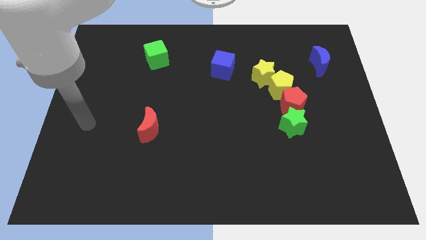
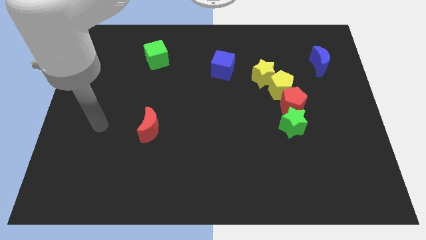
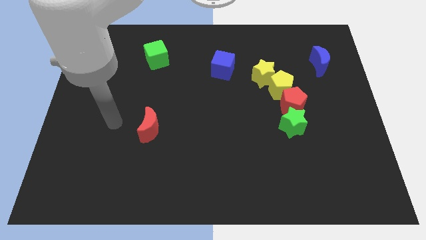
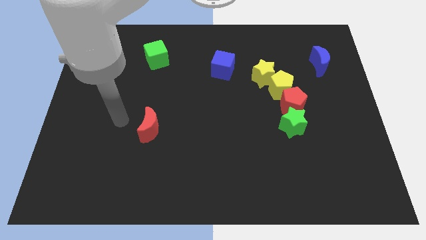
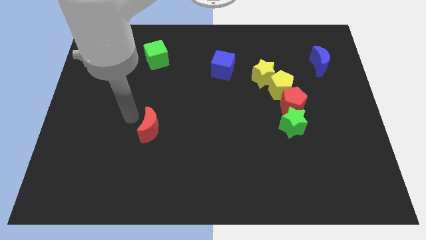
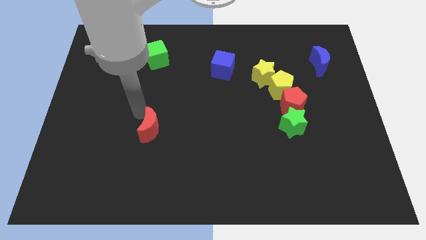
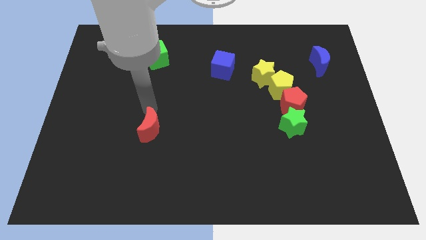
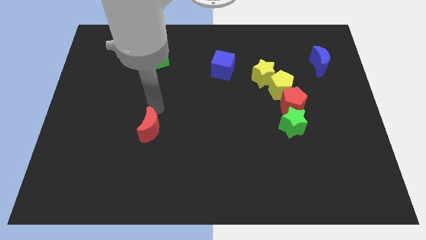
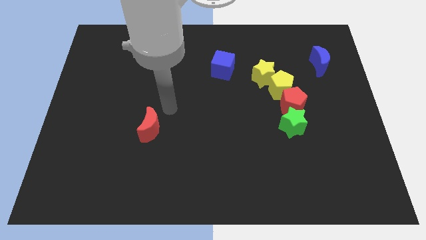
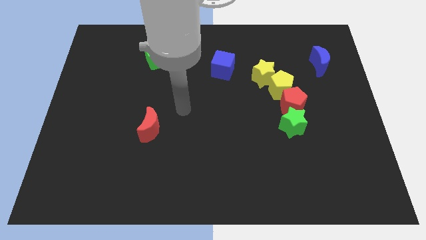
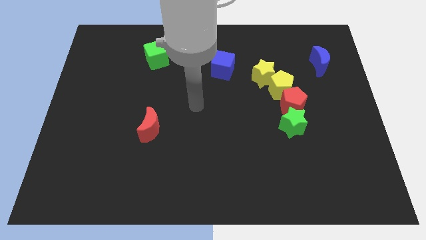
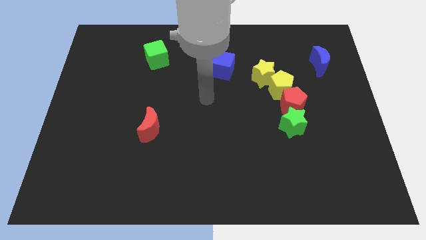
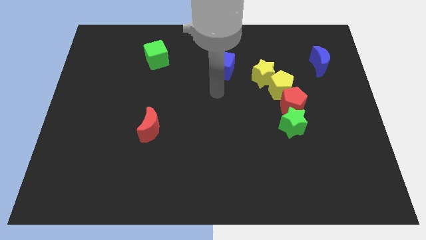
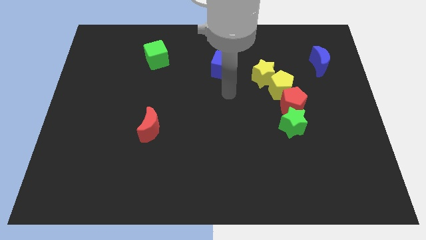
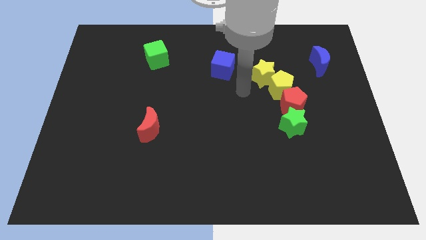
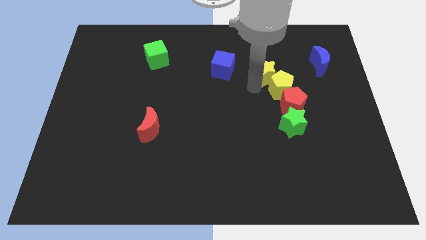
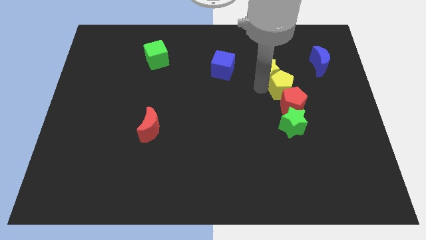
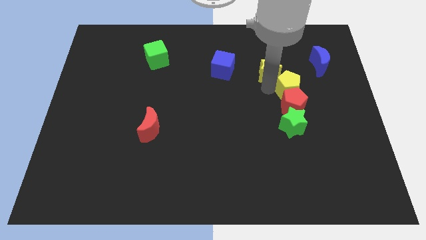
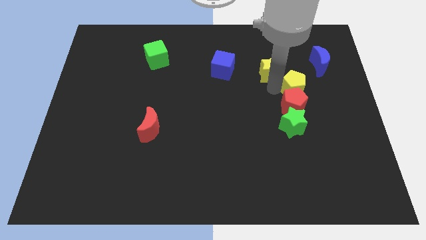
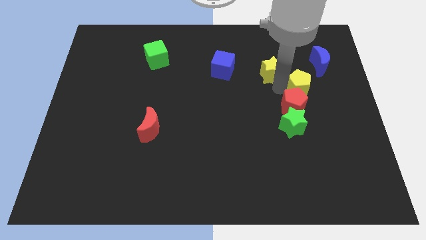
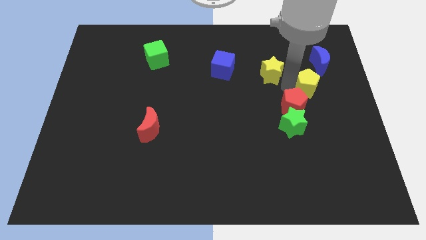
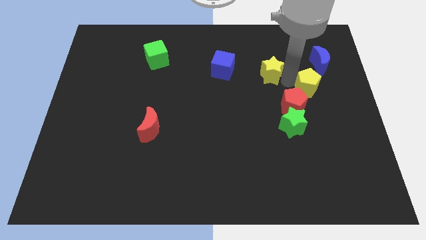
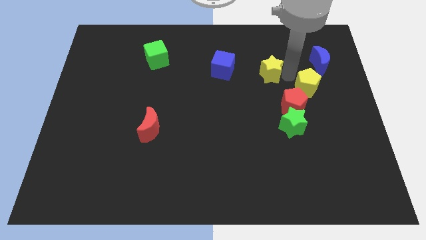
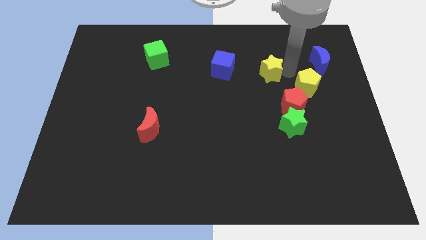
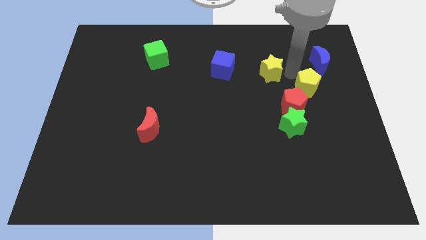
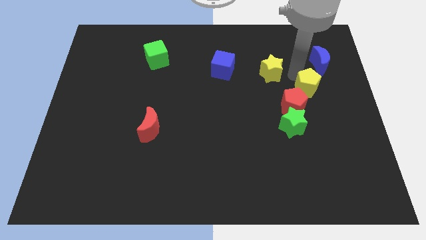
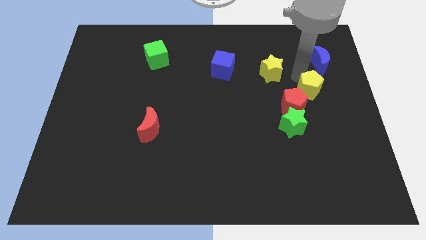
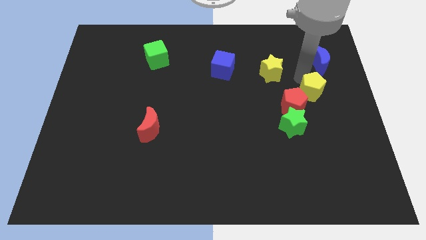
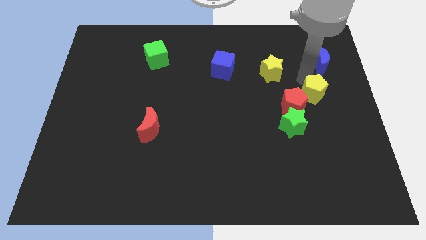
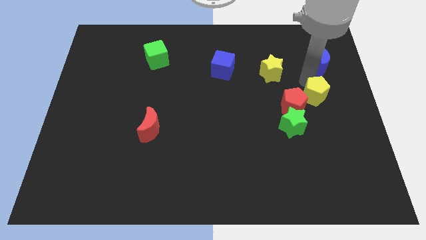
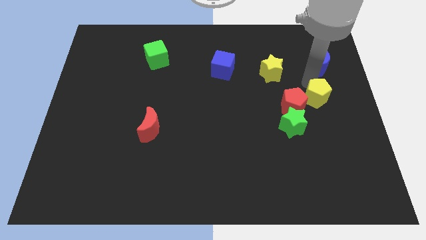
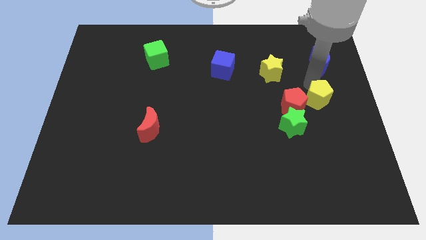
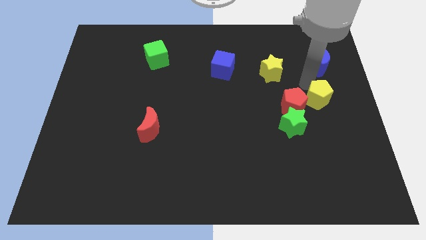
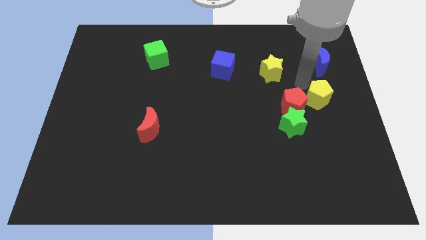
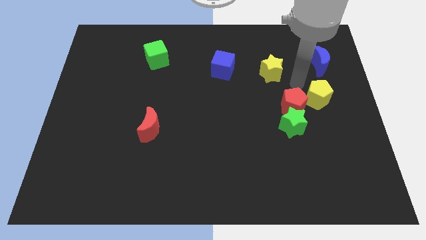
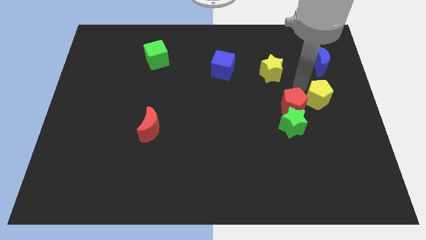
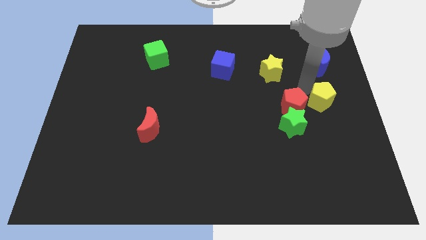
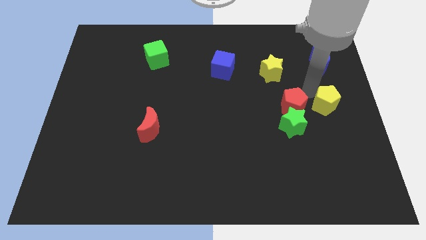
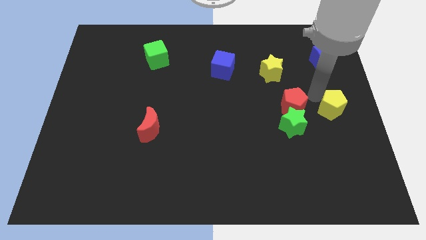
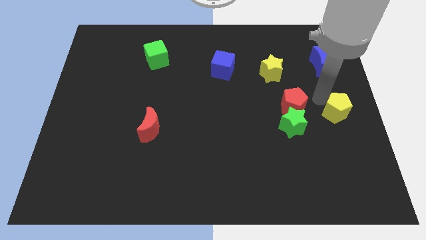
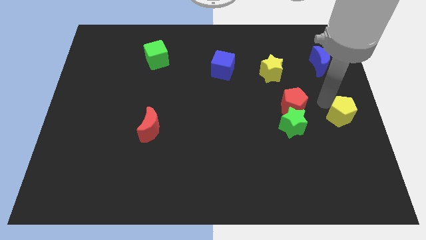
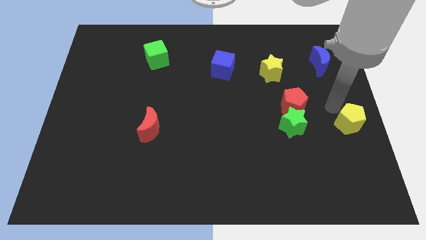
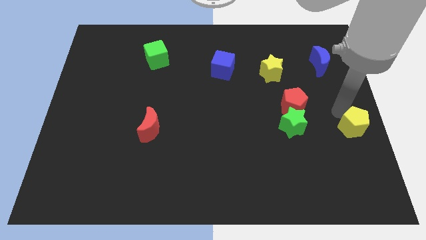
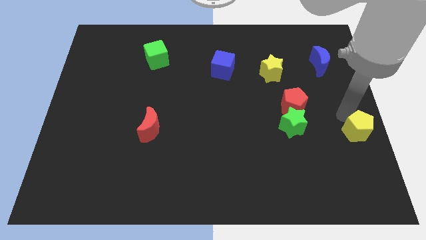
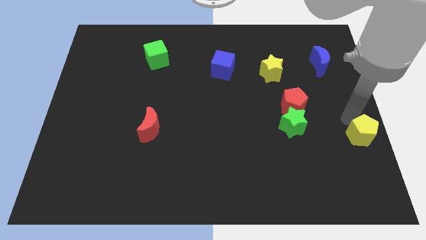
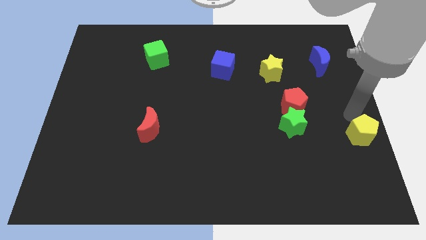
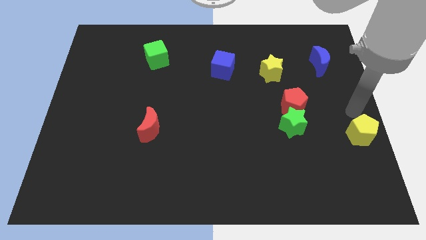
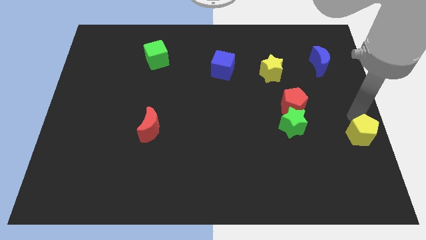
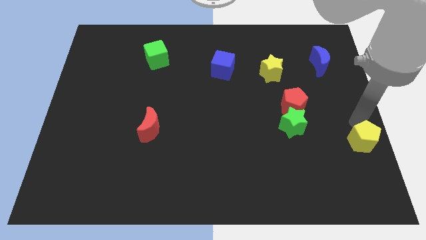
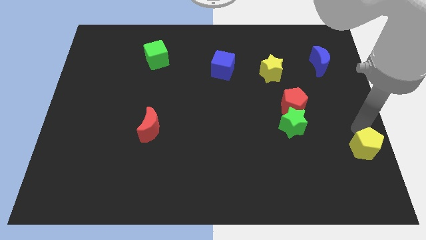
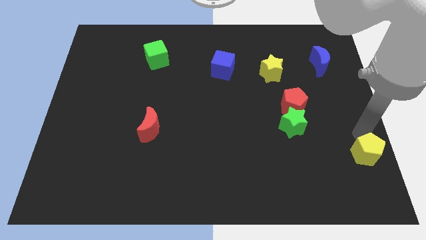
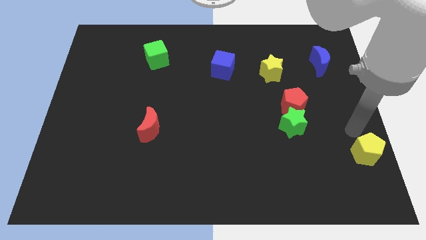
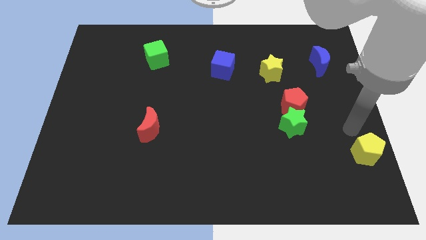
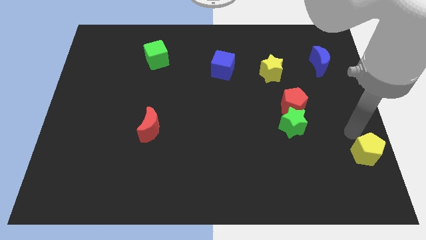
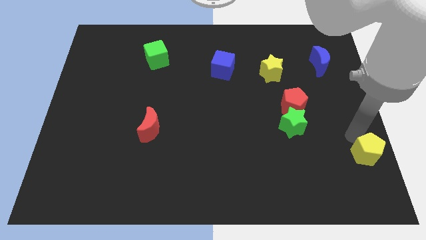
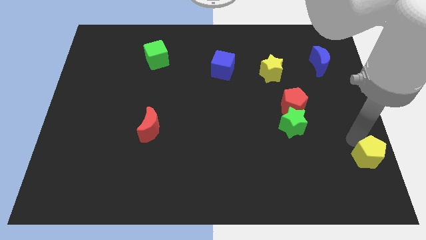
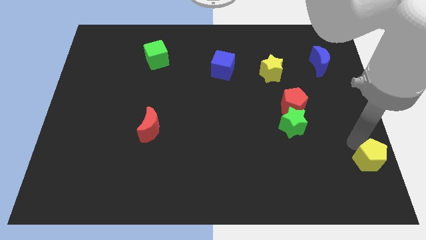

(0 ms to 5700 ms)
put the yellow pentagon to the lower right corner

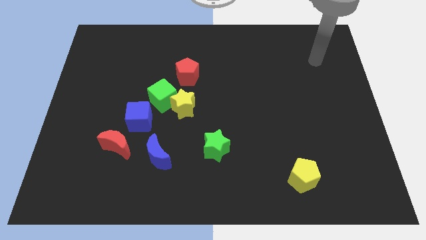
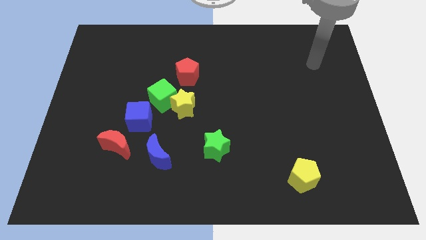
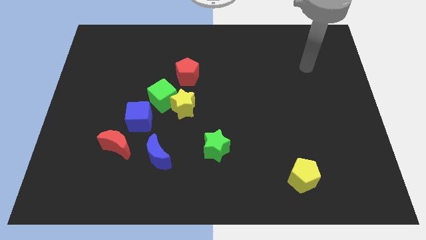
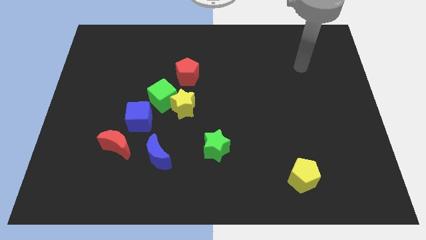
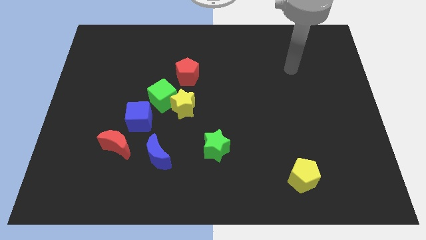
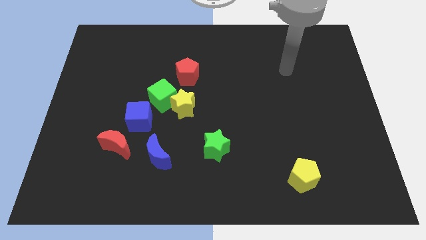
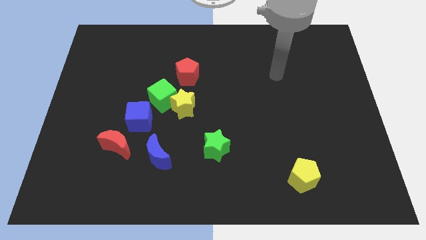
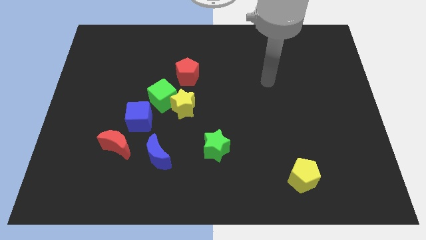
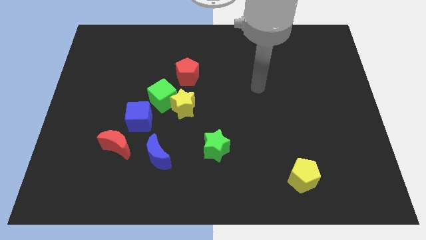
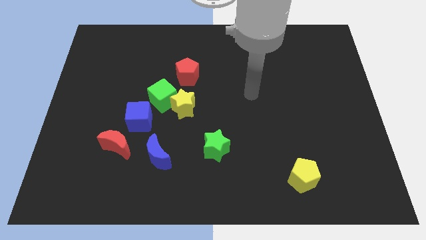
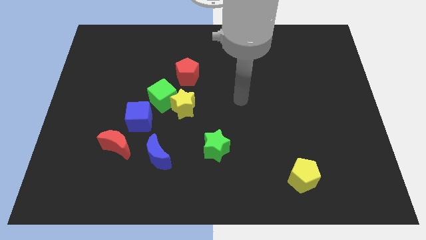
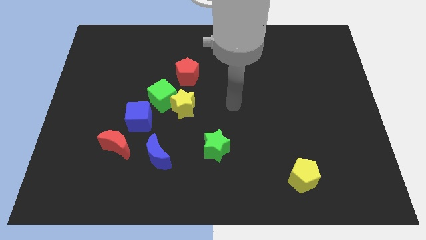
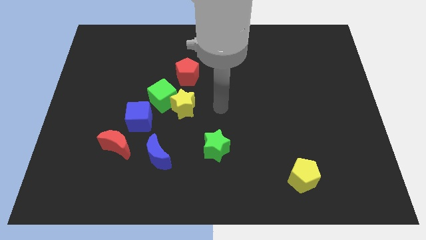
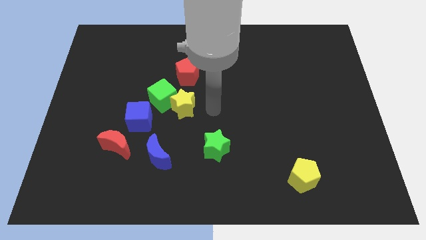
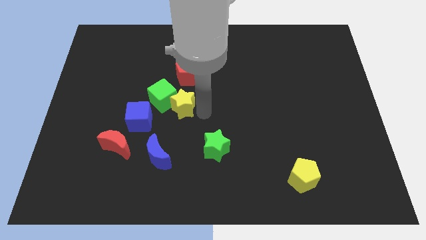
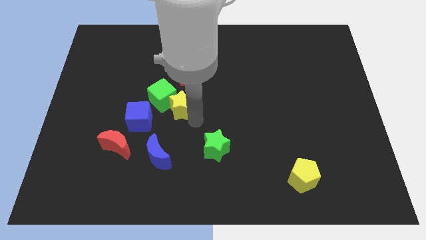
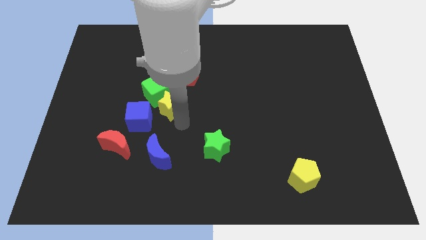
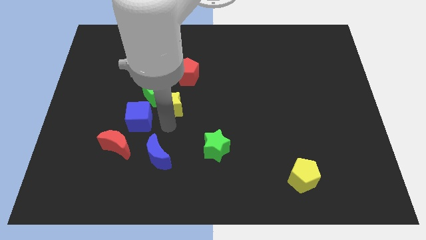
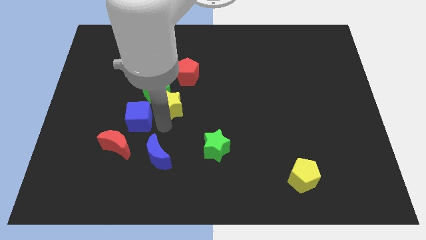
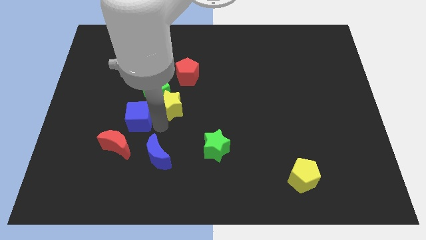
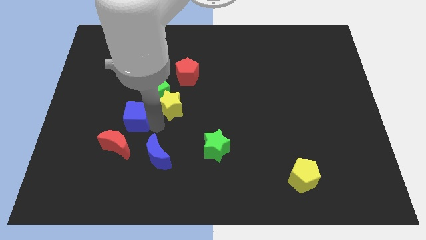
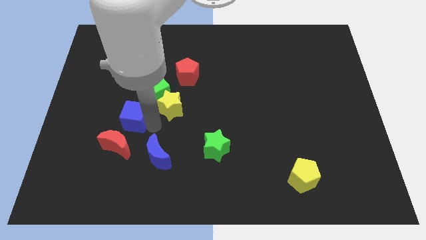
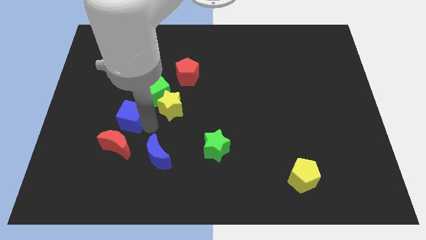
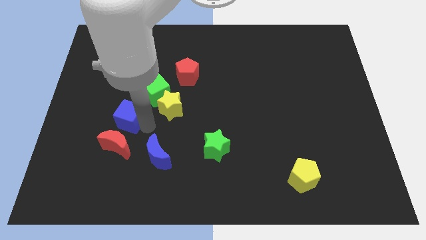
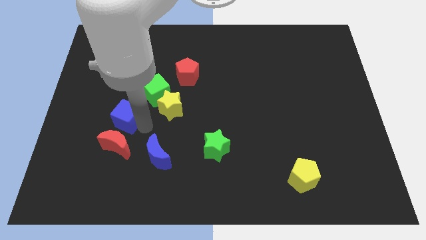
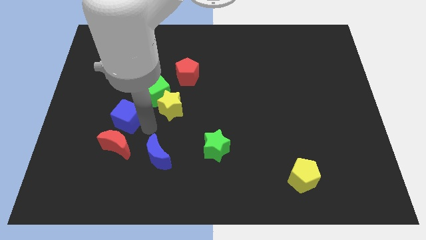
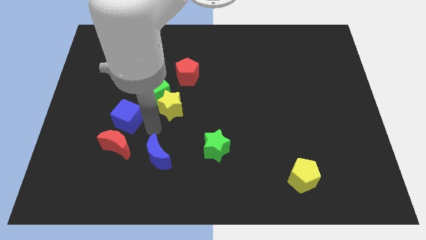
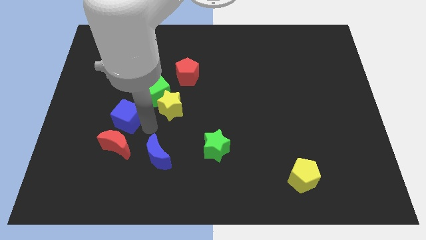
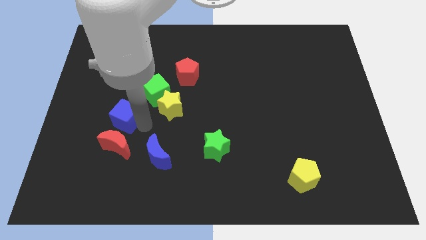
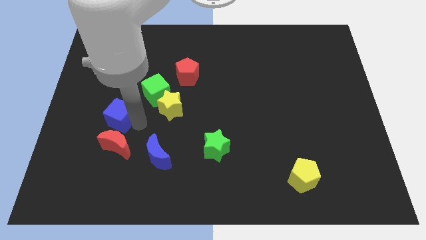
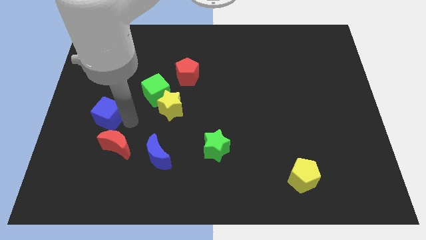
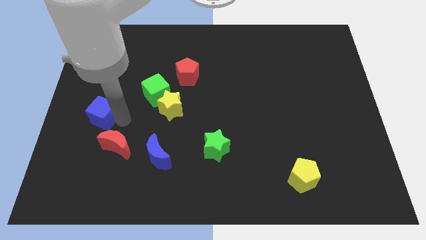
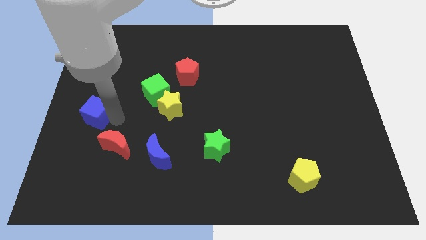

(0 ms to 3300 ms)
push the blue cube to the left side of the board
